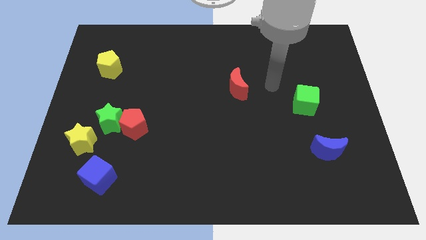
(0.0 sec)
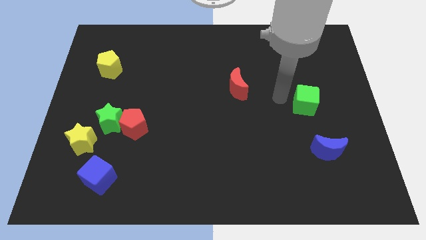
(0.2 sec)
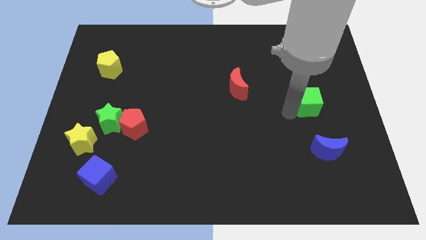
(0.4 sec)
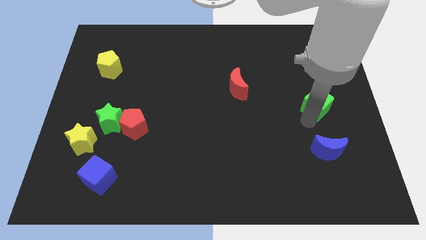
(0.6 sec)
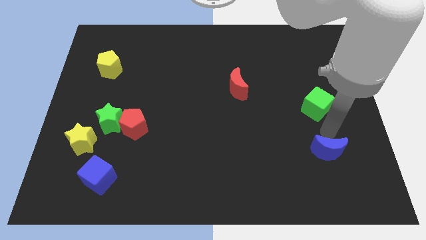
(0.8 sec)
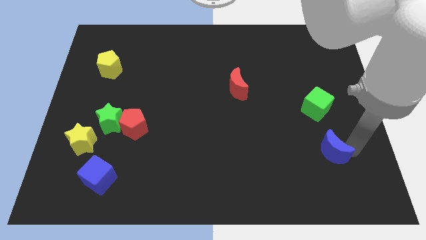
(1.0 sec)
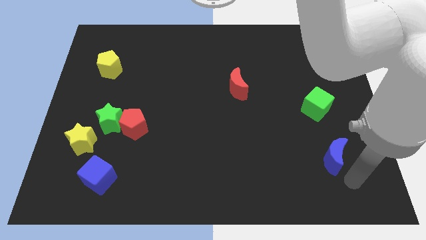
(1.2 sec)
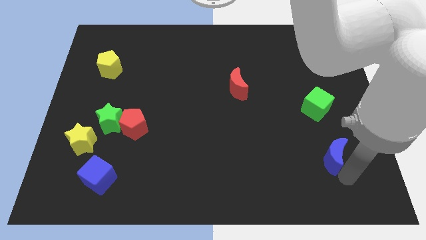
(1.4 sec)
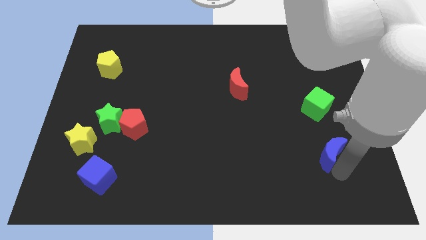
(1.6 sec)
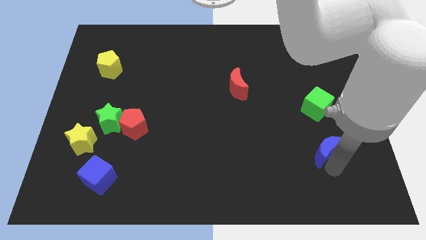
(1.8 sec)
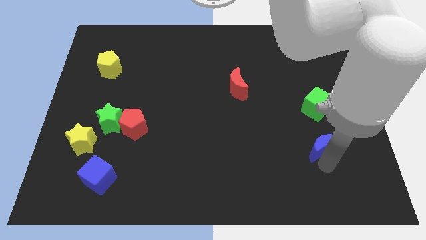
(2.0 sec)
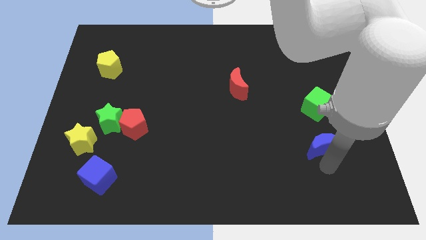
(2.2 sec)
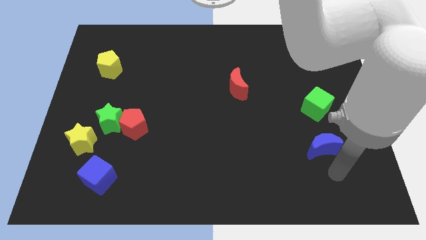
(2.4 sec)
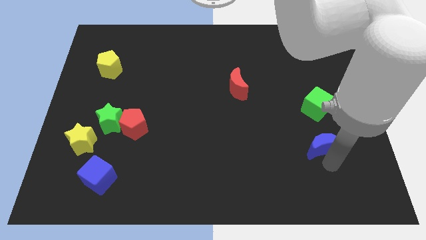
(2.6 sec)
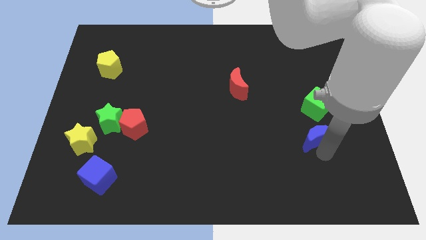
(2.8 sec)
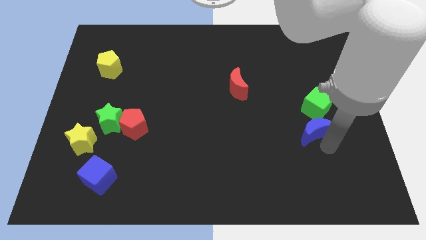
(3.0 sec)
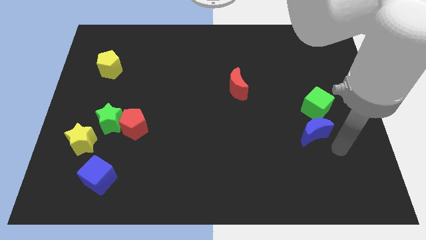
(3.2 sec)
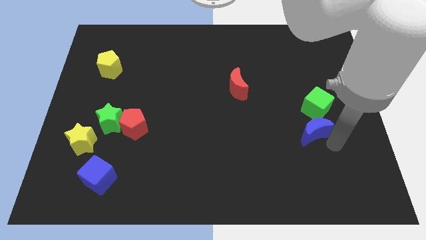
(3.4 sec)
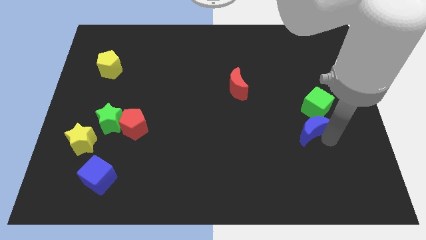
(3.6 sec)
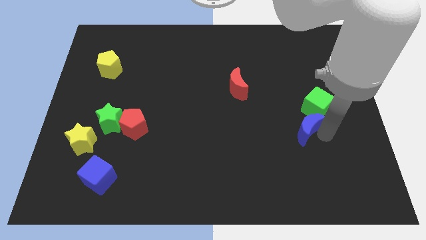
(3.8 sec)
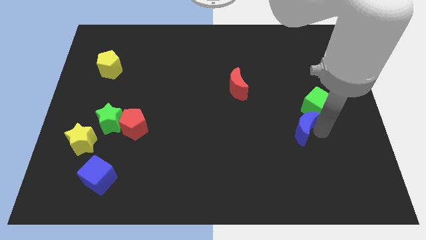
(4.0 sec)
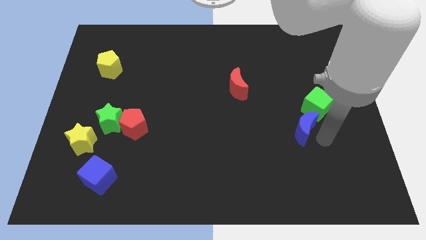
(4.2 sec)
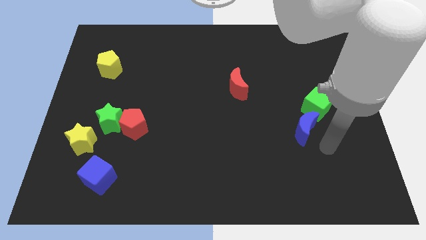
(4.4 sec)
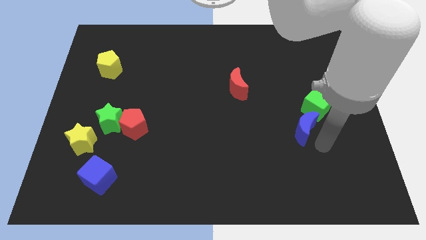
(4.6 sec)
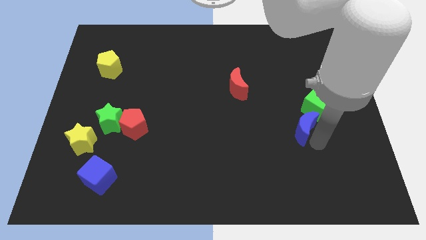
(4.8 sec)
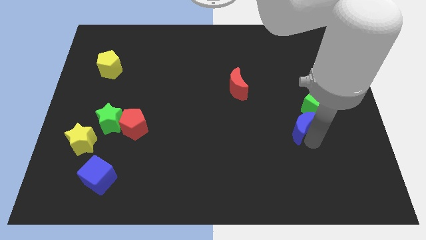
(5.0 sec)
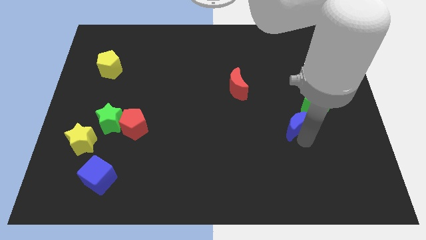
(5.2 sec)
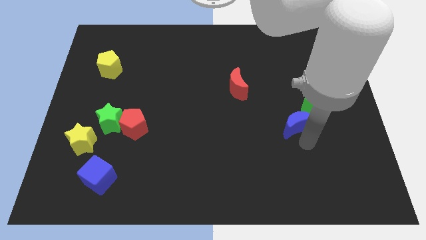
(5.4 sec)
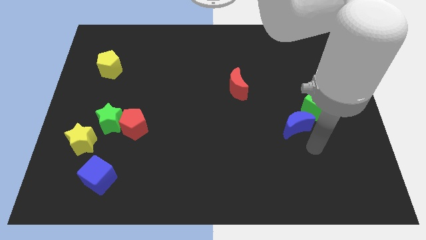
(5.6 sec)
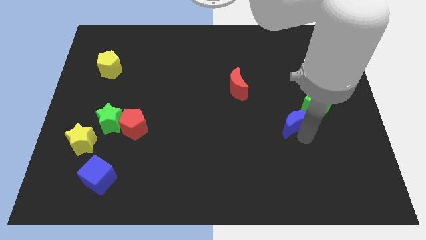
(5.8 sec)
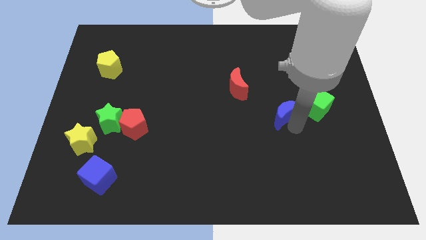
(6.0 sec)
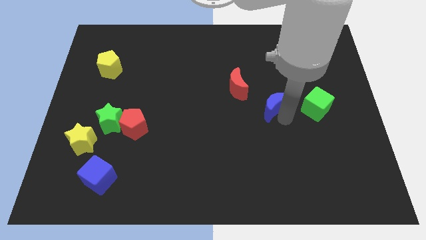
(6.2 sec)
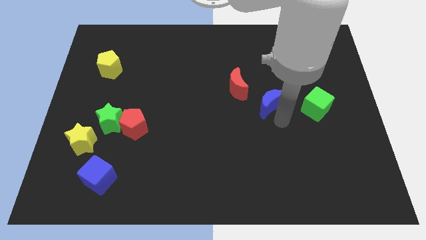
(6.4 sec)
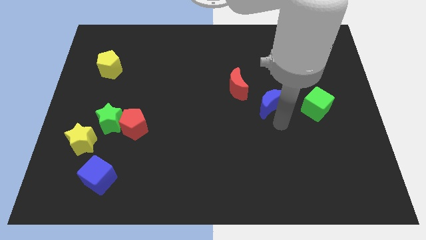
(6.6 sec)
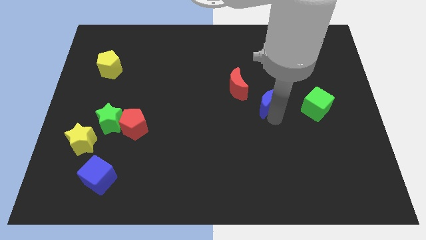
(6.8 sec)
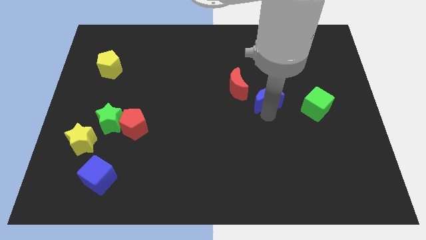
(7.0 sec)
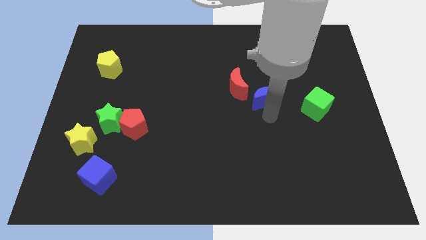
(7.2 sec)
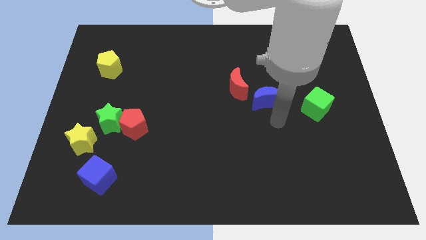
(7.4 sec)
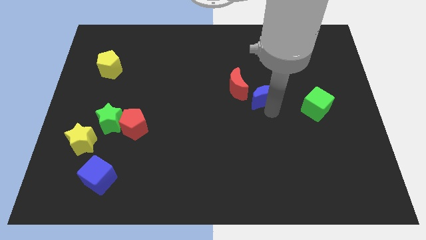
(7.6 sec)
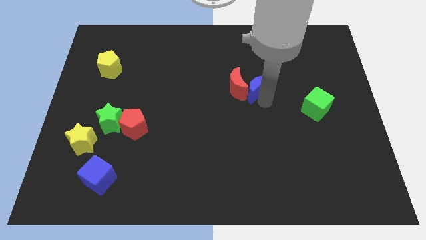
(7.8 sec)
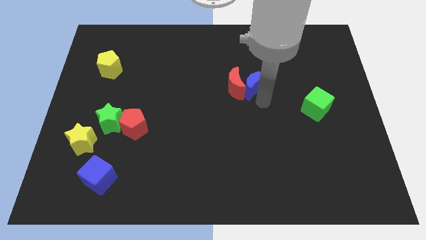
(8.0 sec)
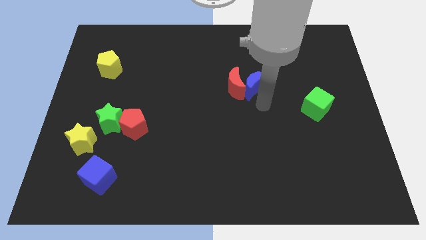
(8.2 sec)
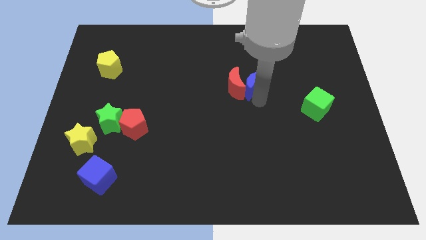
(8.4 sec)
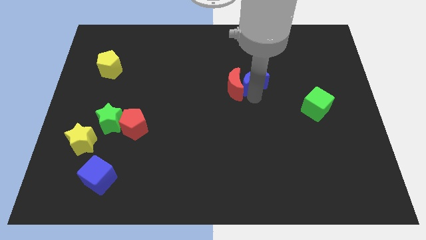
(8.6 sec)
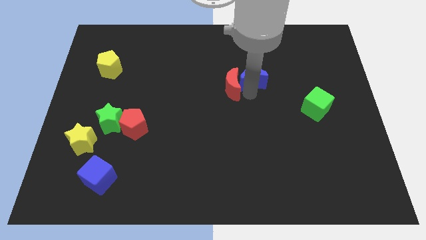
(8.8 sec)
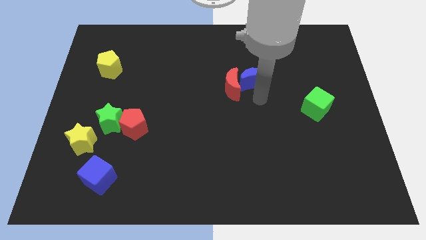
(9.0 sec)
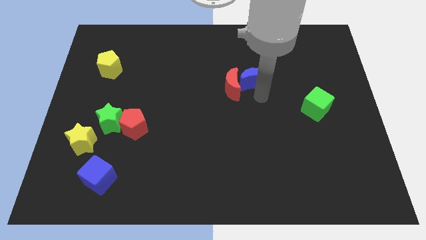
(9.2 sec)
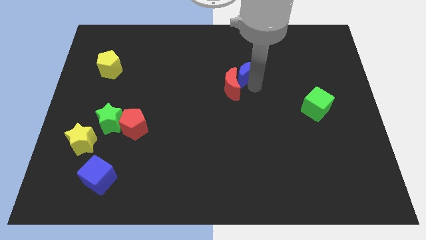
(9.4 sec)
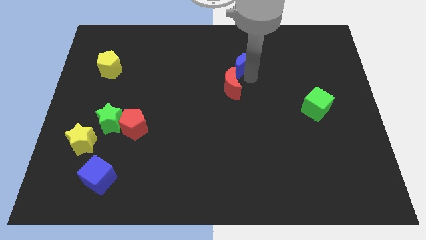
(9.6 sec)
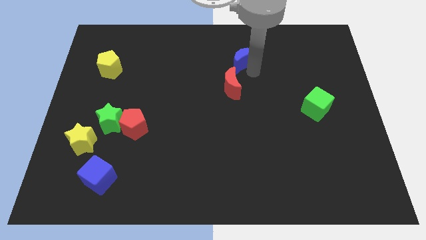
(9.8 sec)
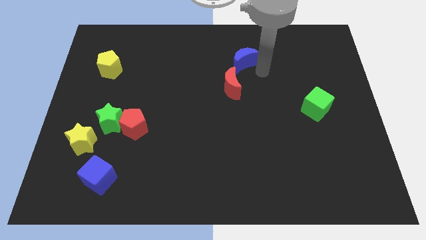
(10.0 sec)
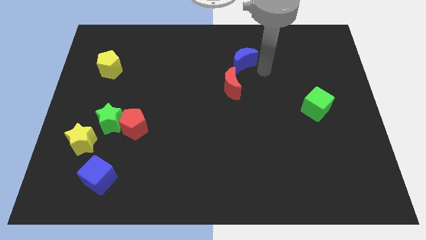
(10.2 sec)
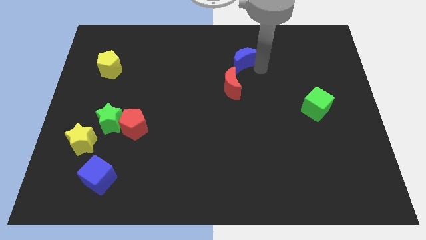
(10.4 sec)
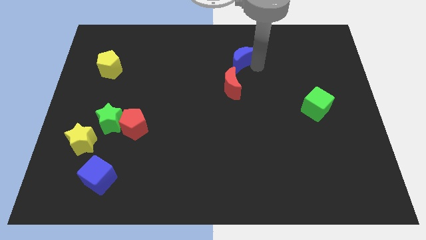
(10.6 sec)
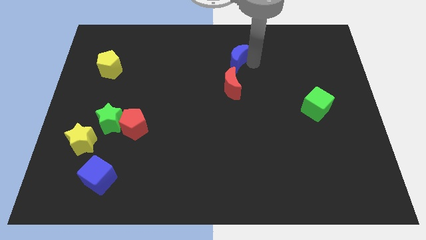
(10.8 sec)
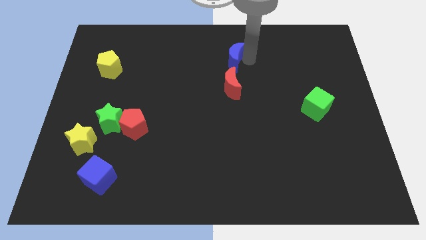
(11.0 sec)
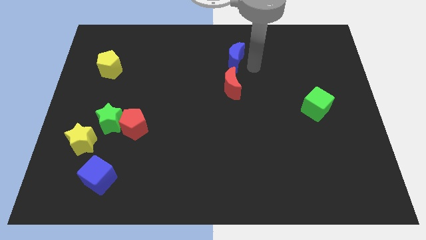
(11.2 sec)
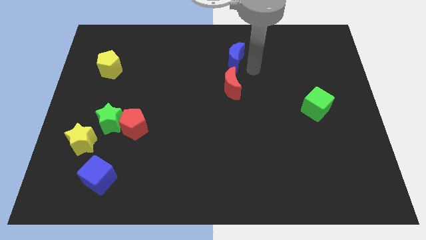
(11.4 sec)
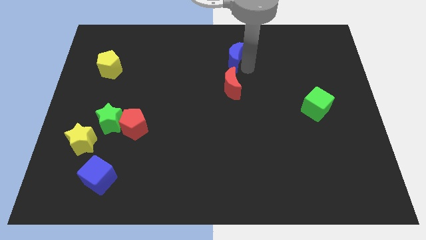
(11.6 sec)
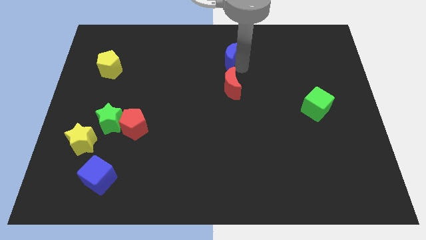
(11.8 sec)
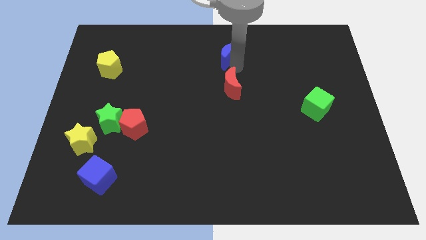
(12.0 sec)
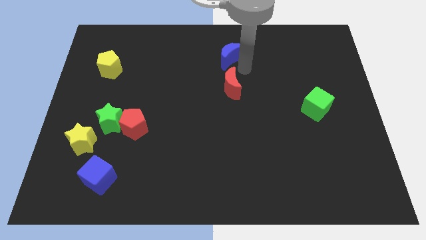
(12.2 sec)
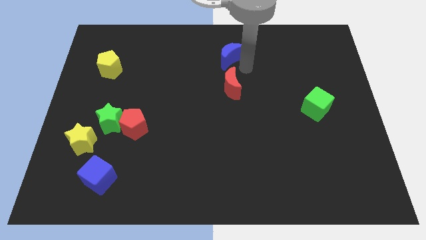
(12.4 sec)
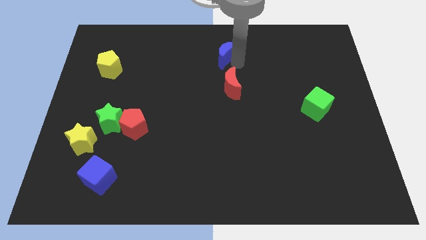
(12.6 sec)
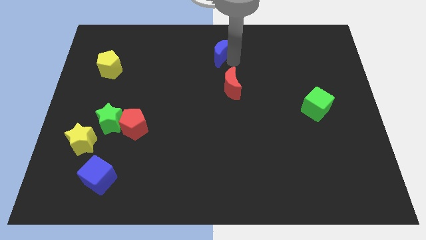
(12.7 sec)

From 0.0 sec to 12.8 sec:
move the blue moon to the top

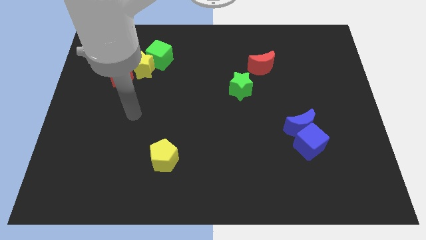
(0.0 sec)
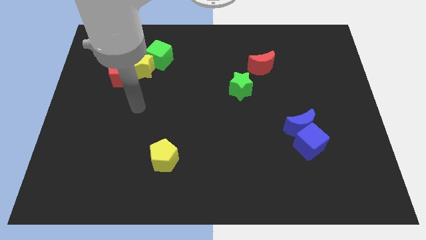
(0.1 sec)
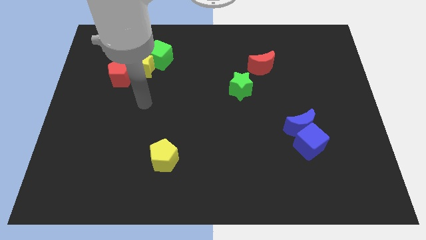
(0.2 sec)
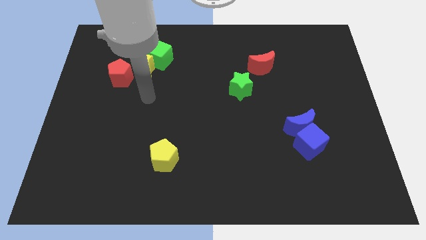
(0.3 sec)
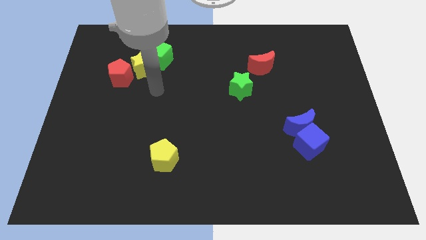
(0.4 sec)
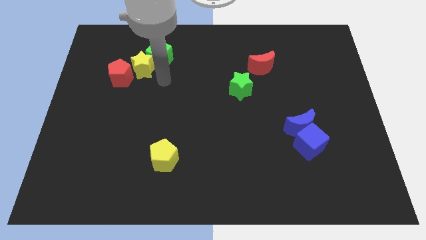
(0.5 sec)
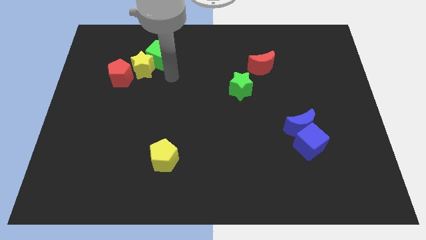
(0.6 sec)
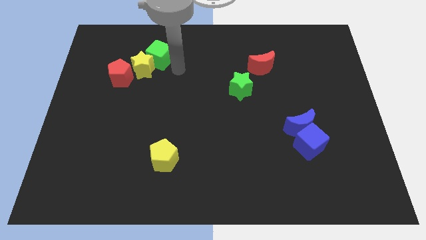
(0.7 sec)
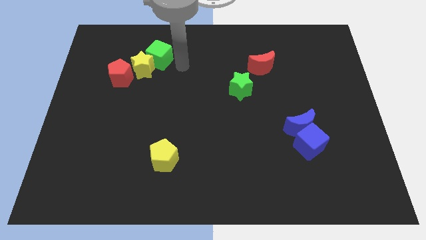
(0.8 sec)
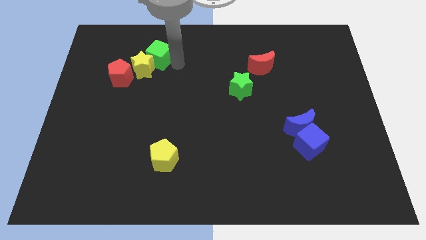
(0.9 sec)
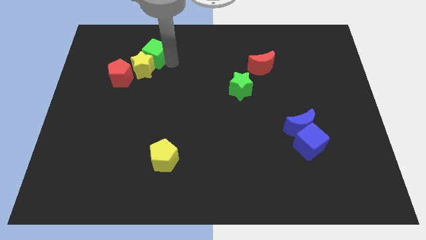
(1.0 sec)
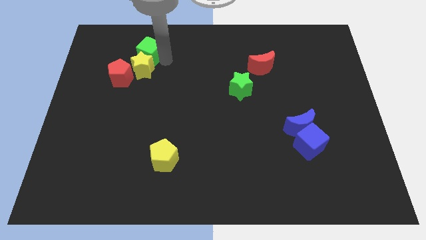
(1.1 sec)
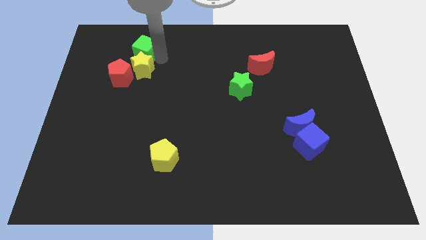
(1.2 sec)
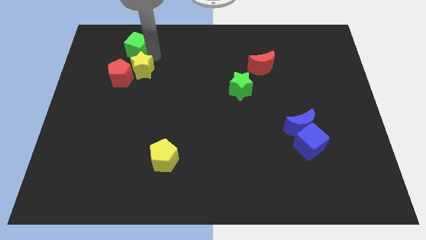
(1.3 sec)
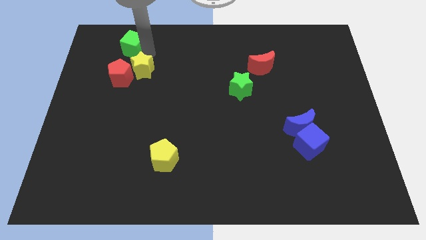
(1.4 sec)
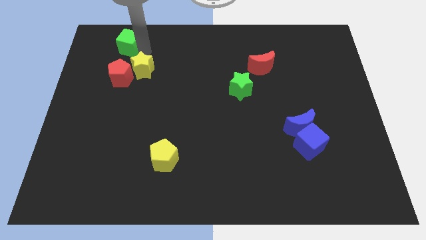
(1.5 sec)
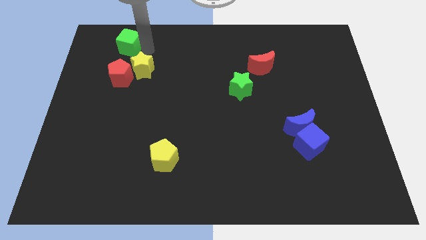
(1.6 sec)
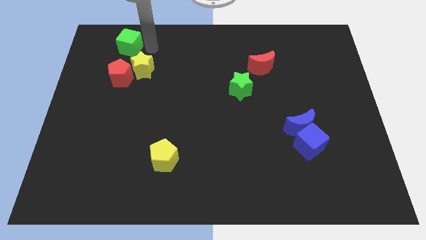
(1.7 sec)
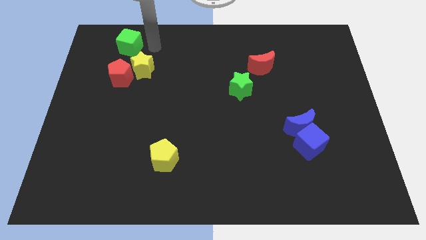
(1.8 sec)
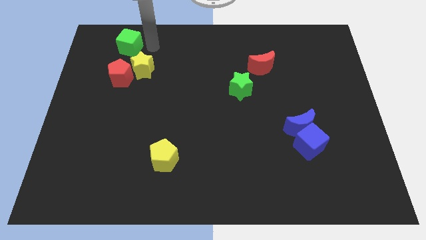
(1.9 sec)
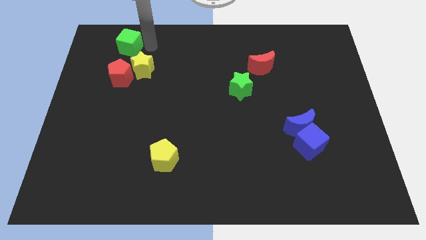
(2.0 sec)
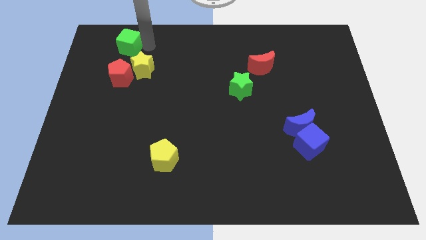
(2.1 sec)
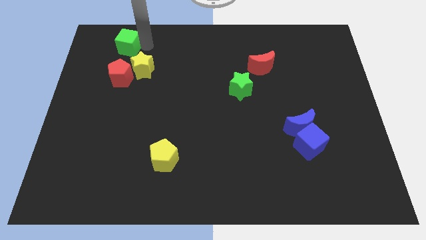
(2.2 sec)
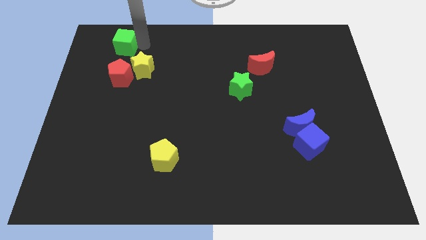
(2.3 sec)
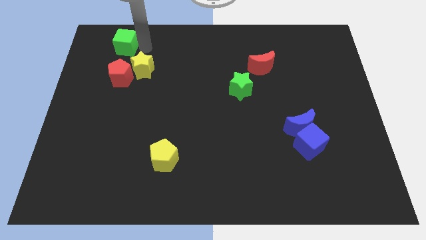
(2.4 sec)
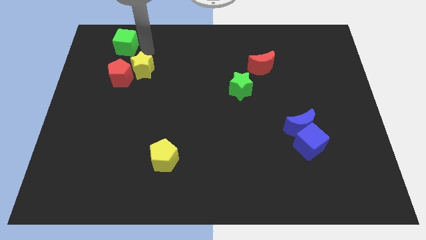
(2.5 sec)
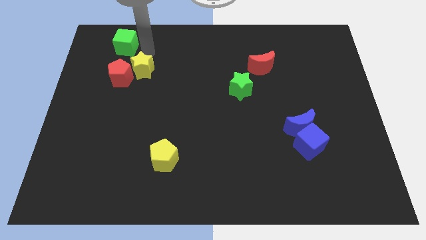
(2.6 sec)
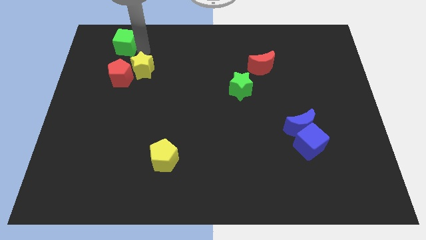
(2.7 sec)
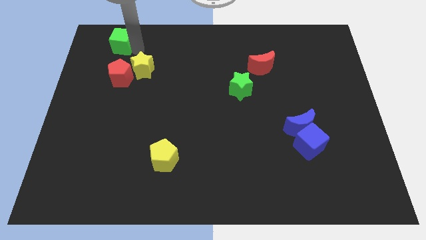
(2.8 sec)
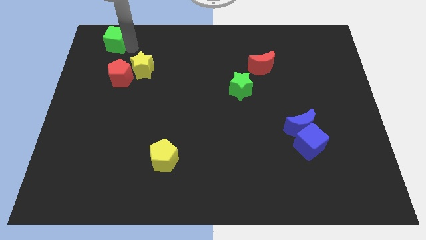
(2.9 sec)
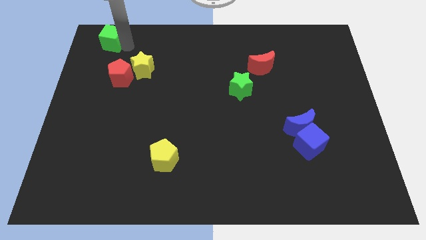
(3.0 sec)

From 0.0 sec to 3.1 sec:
put the green cube to the top left corner
